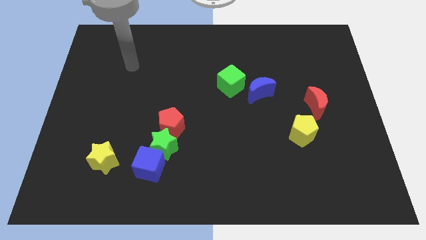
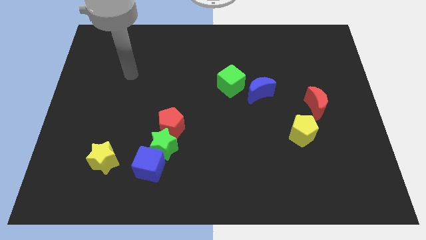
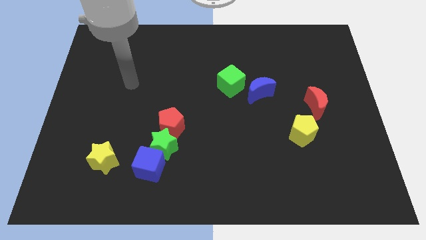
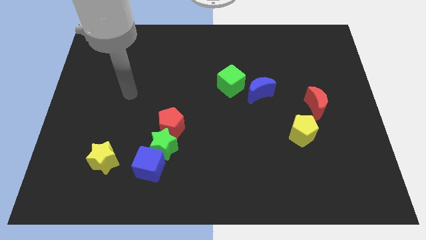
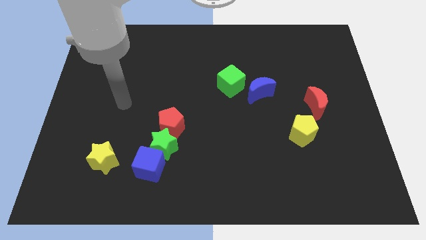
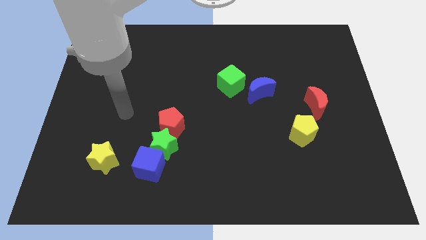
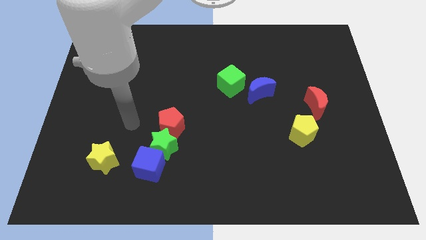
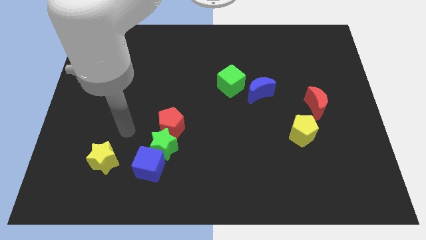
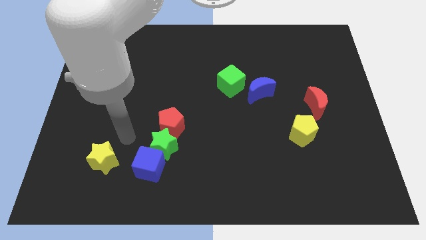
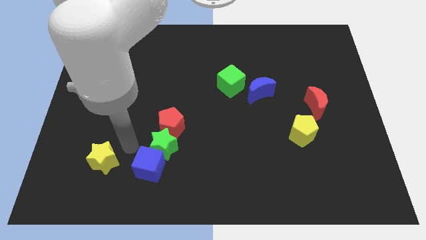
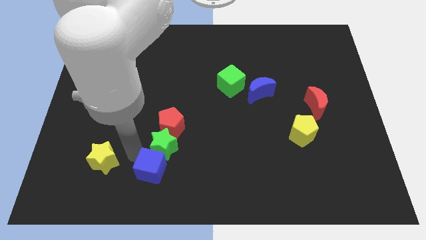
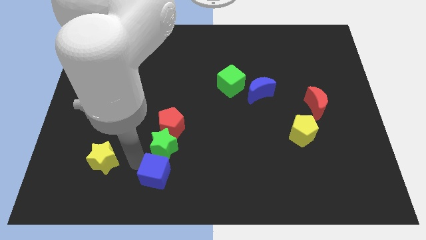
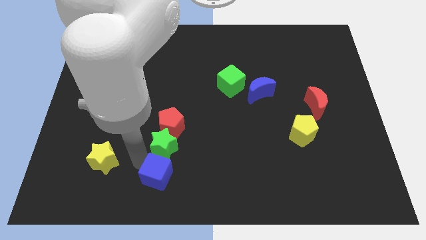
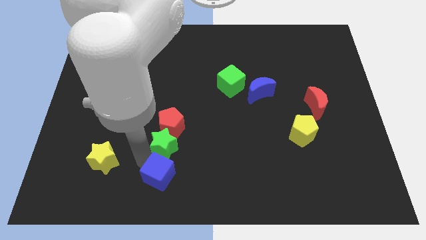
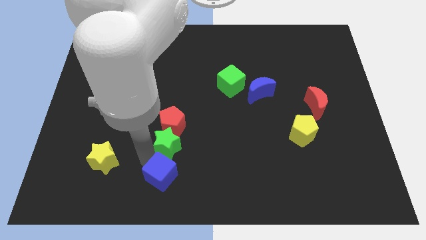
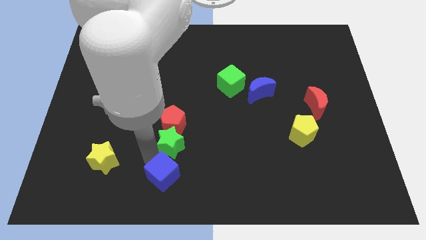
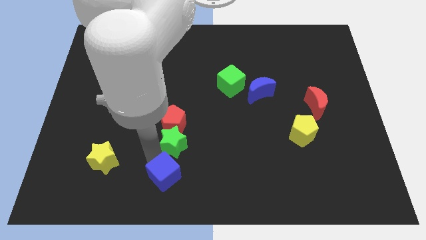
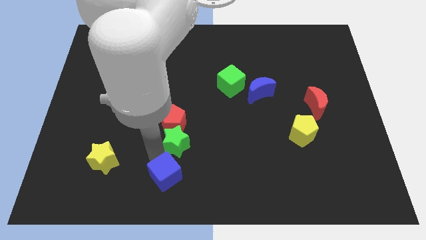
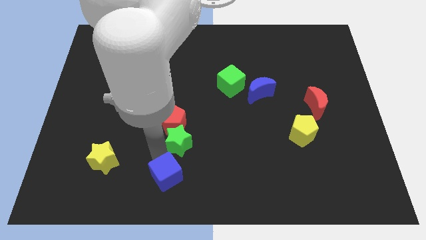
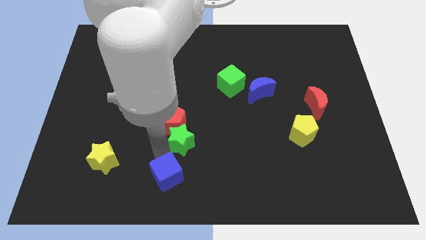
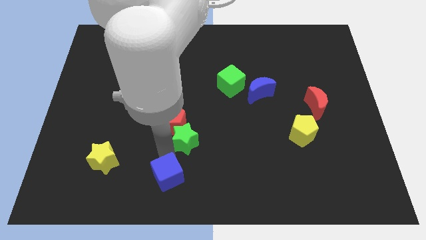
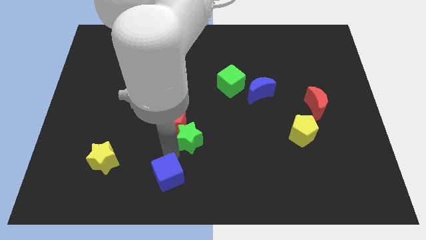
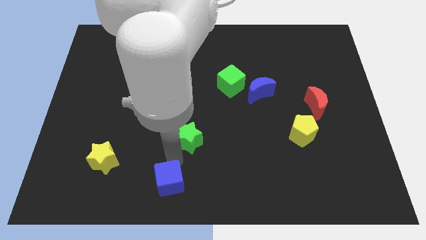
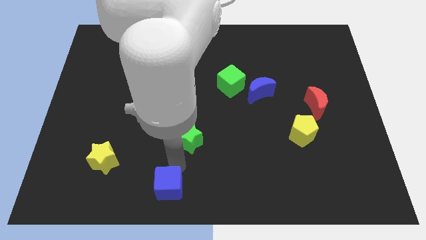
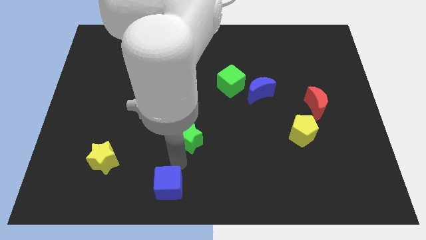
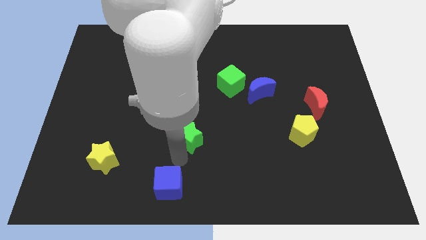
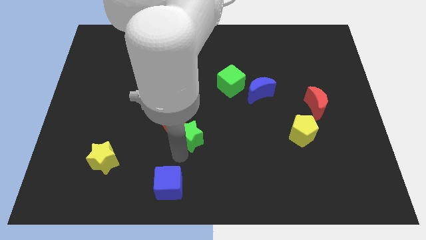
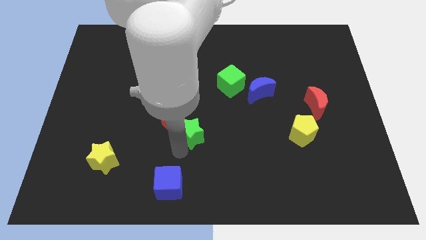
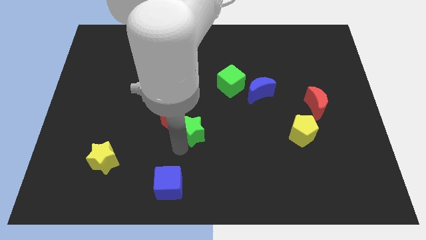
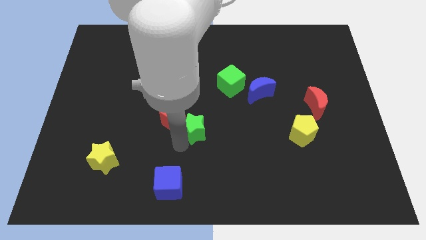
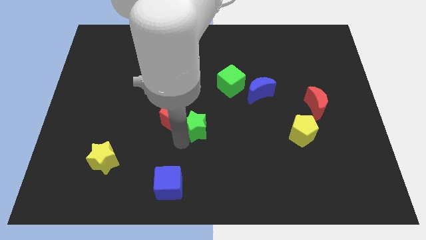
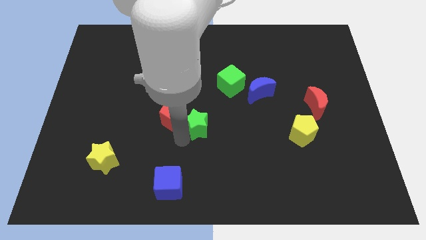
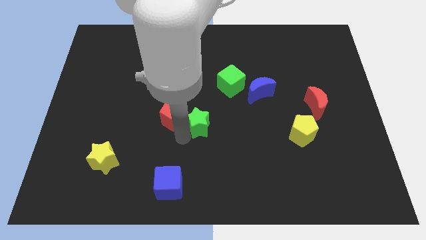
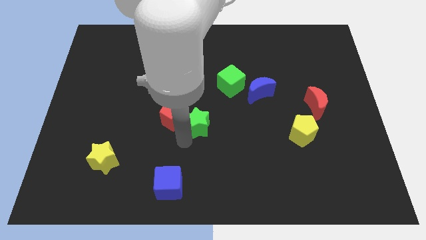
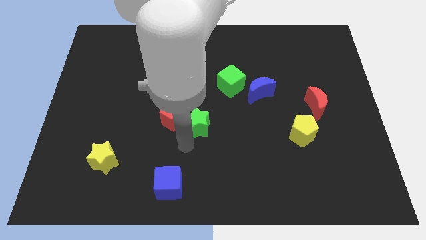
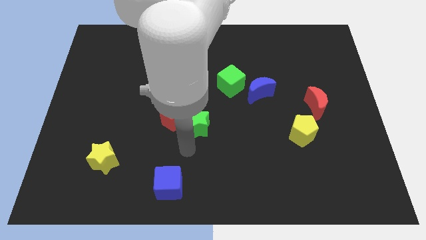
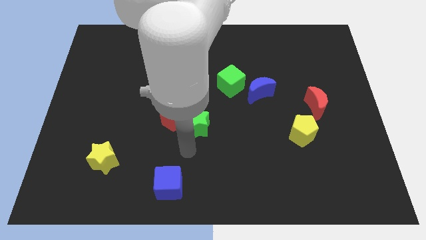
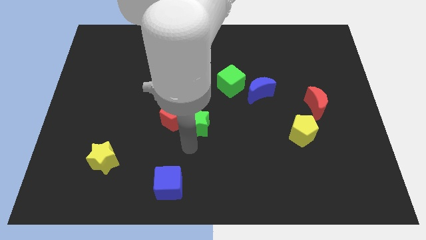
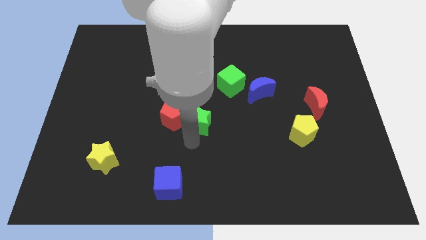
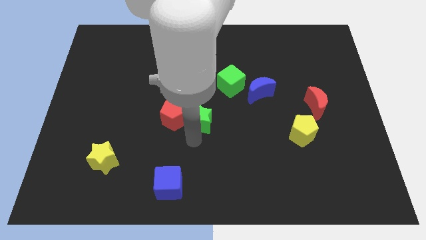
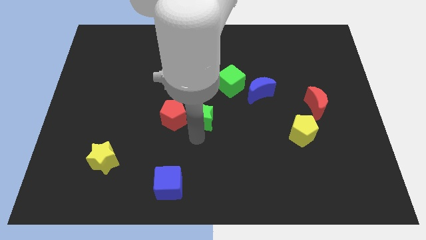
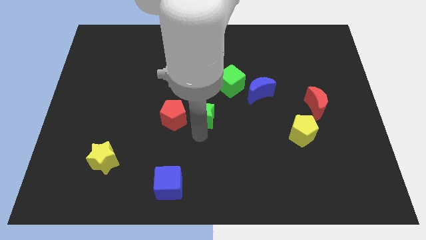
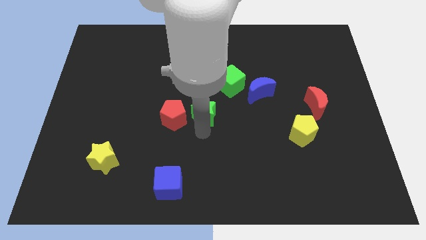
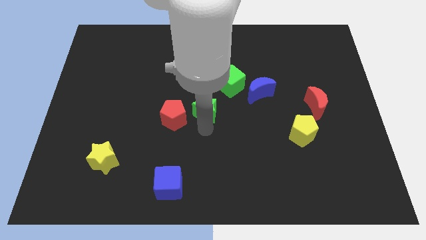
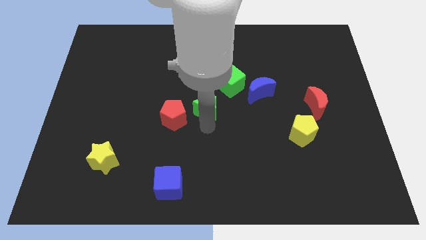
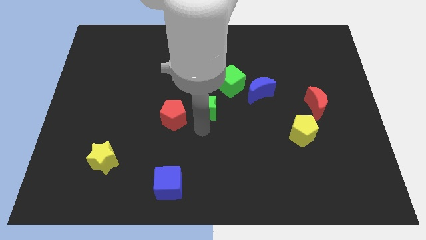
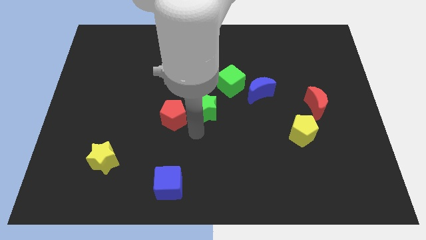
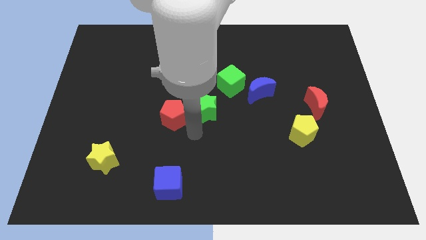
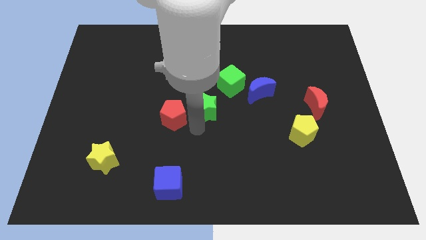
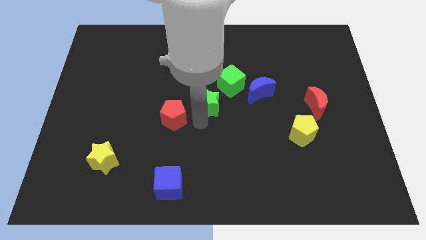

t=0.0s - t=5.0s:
put the green star to the left of the blue moon

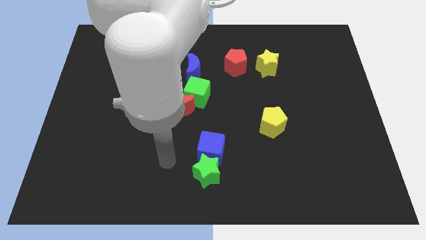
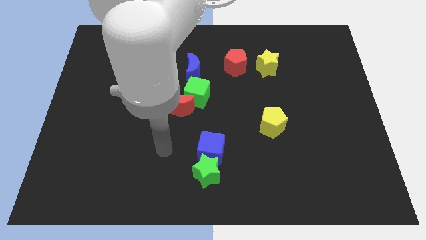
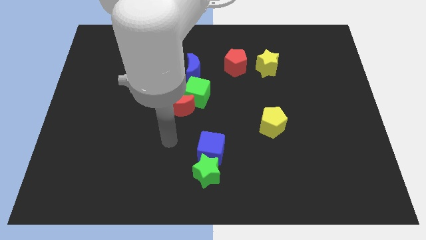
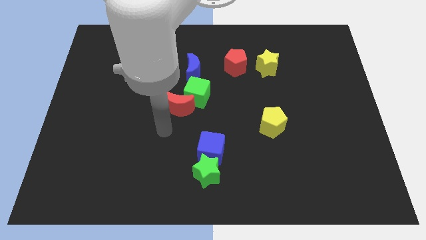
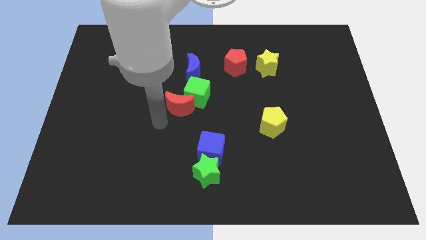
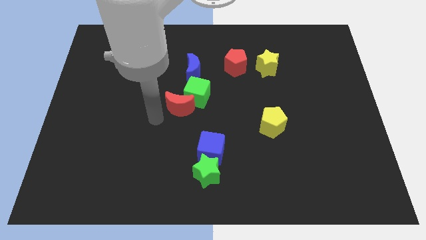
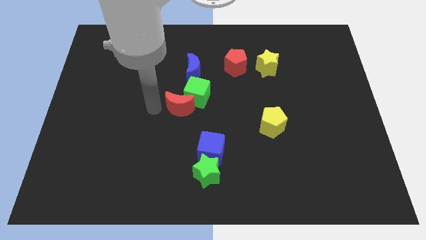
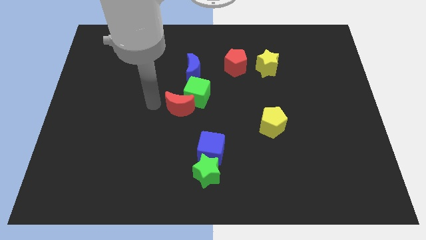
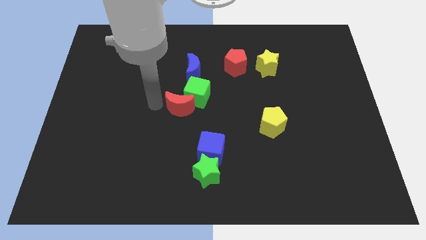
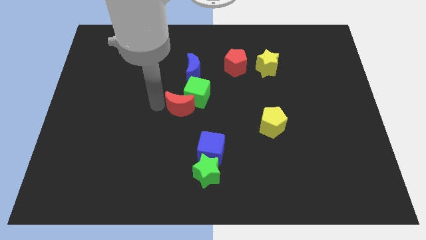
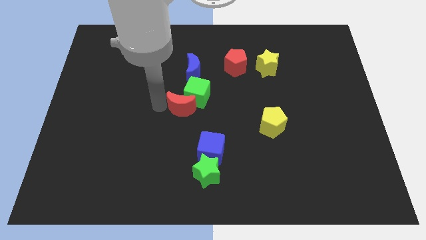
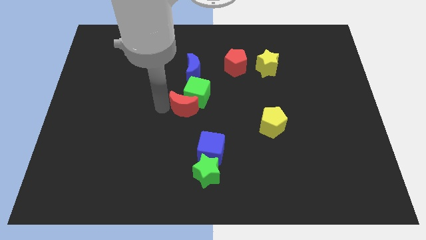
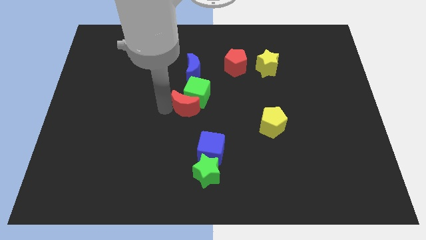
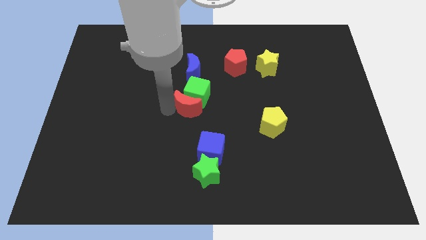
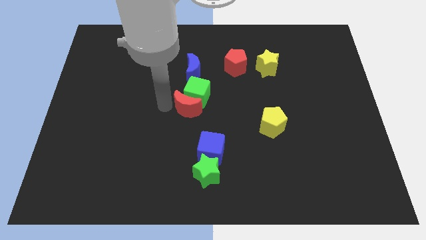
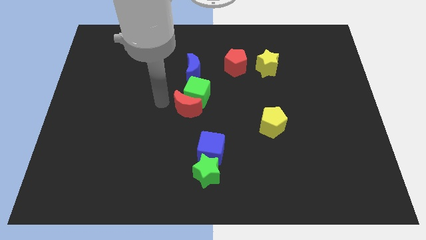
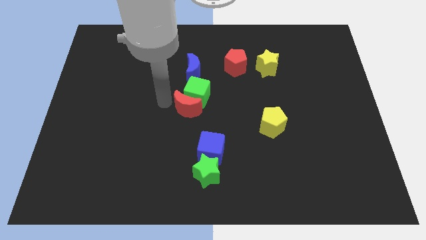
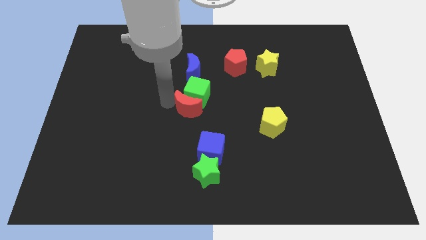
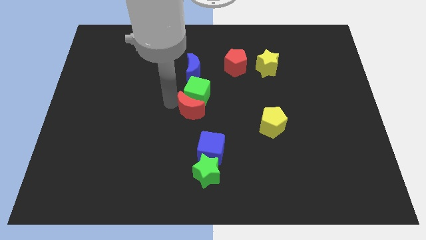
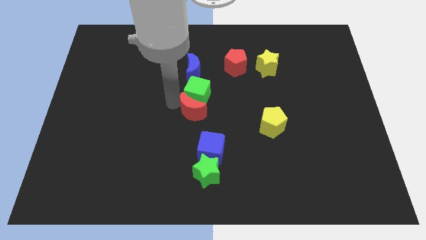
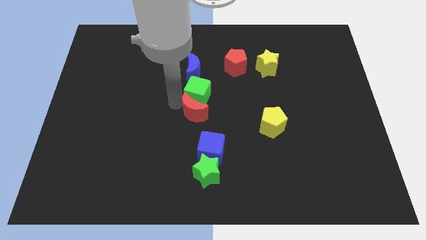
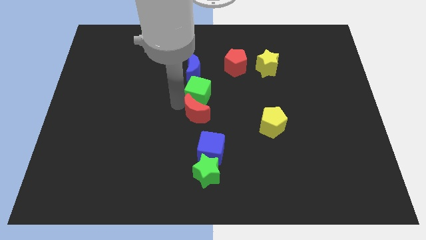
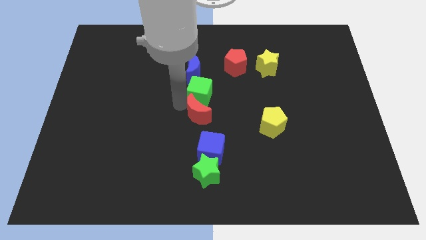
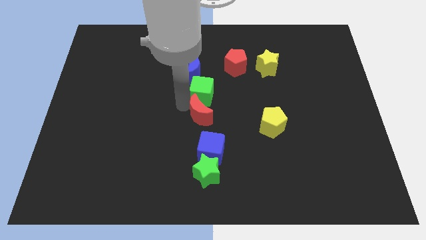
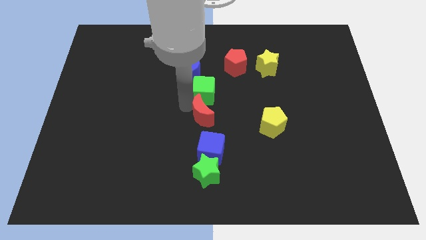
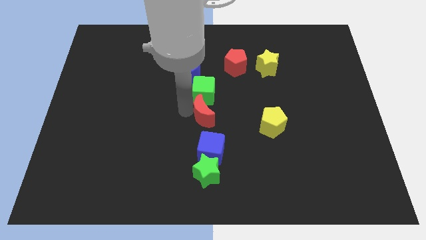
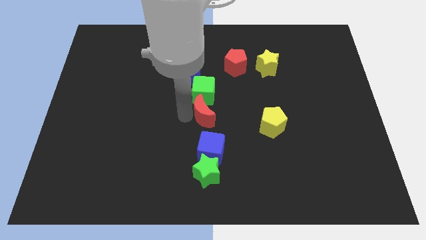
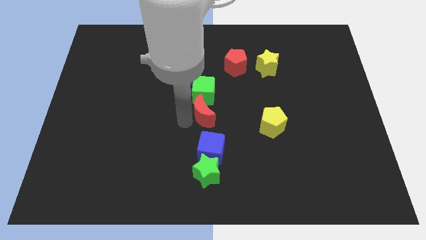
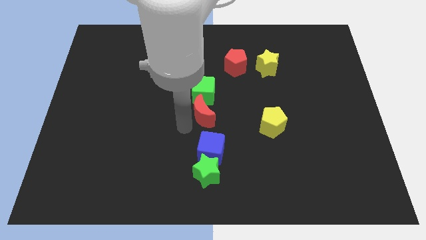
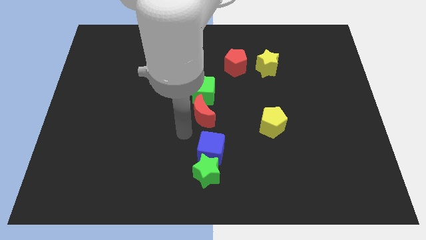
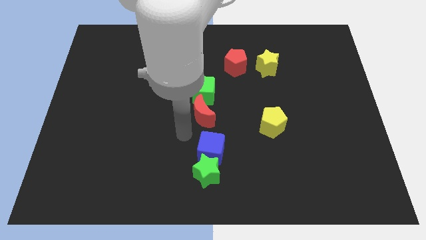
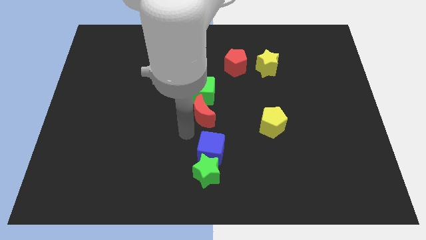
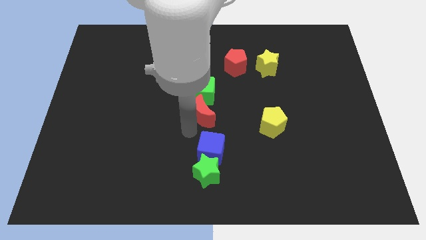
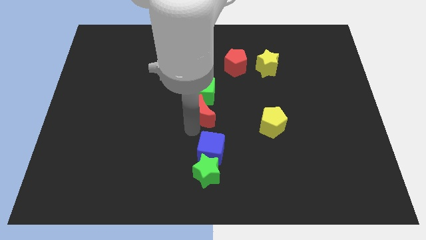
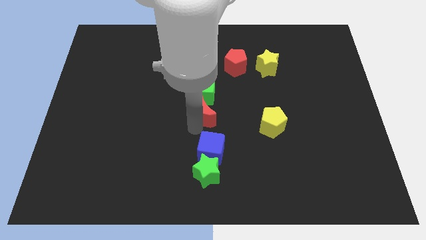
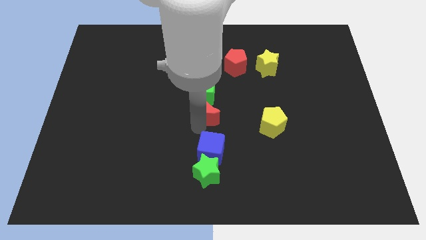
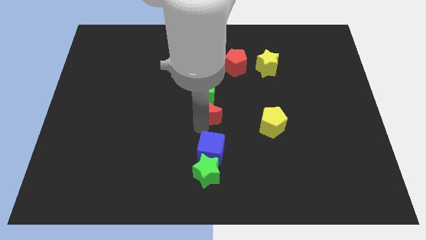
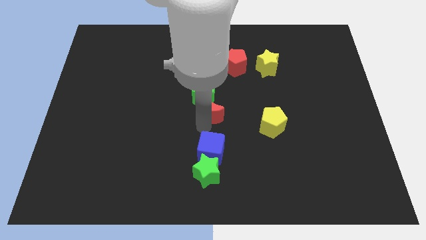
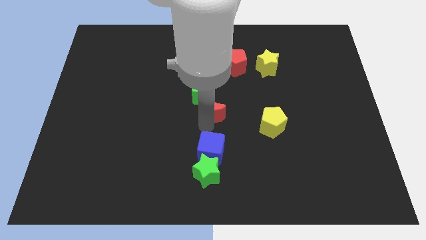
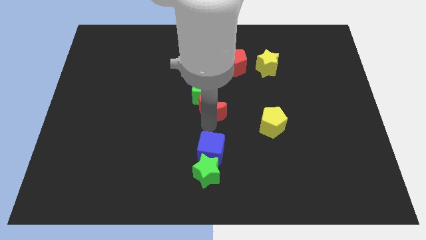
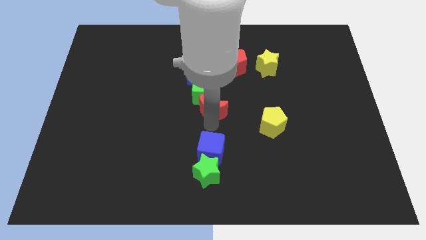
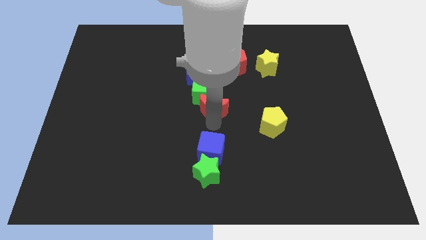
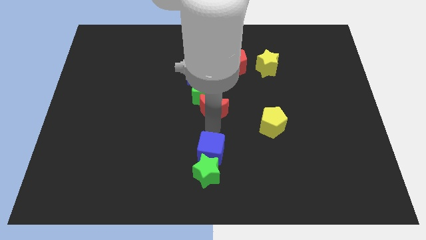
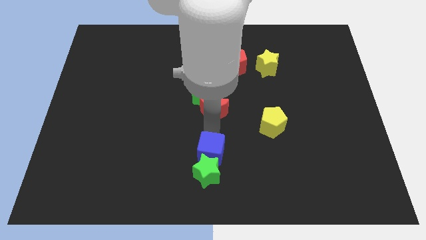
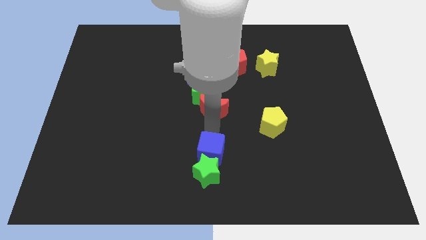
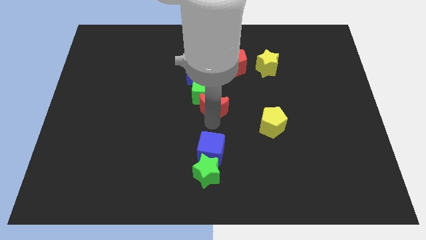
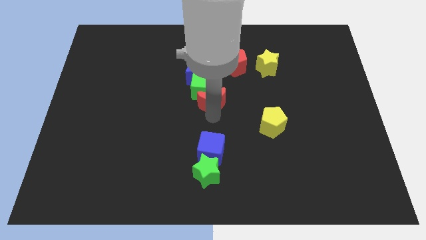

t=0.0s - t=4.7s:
move the red moon to the bottom right of the blue moon
